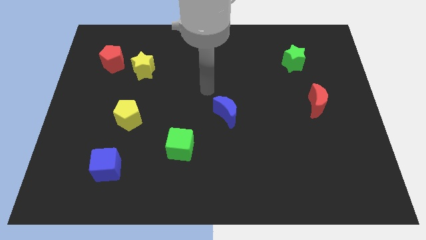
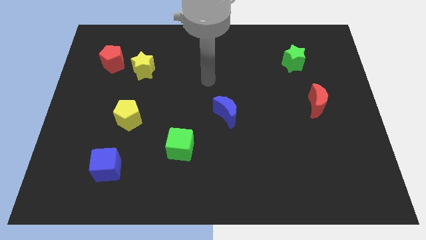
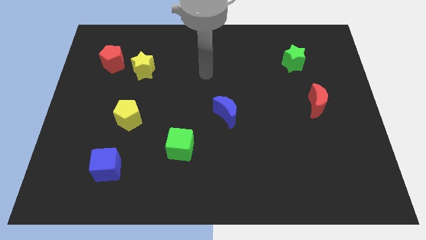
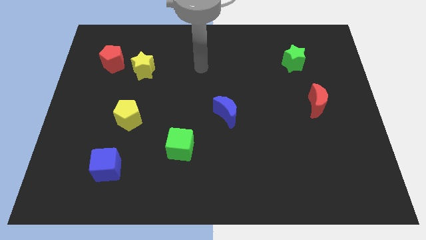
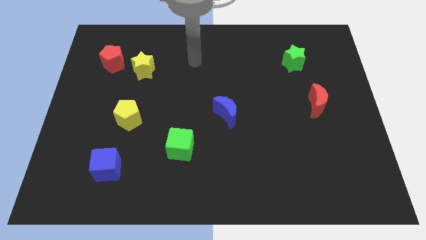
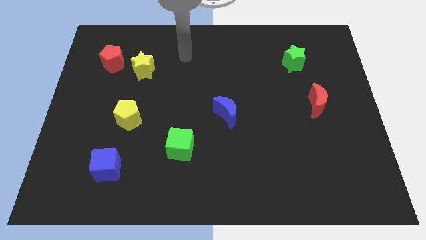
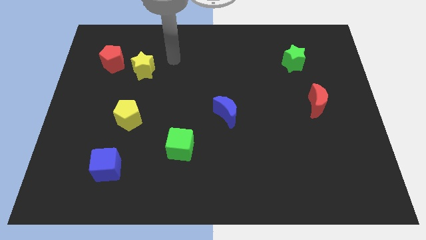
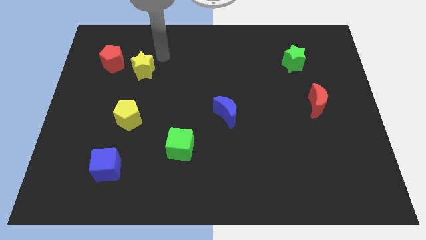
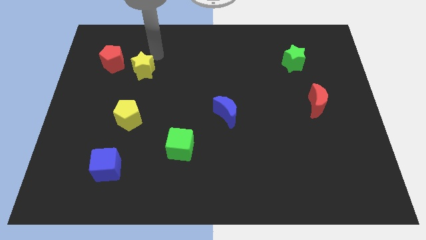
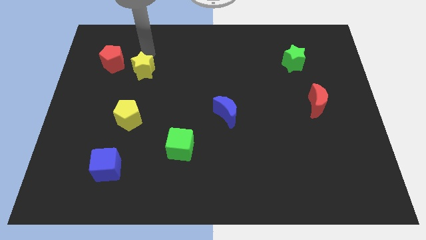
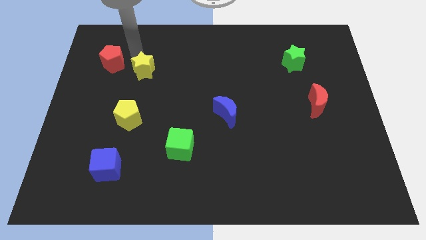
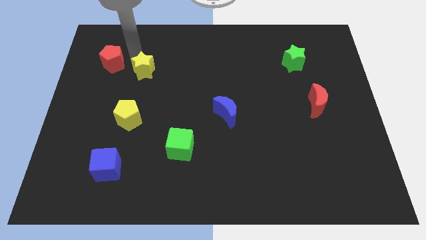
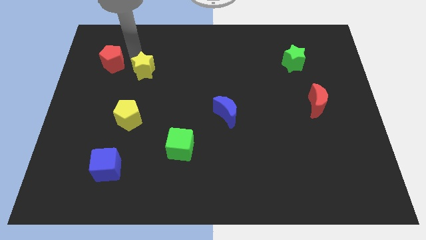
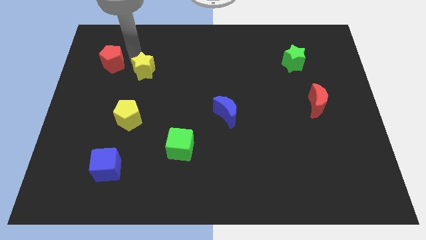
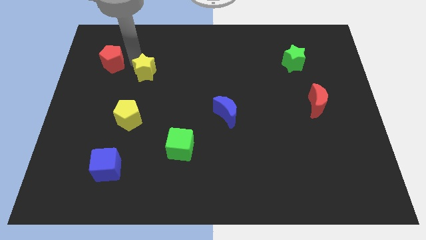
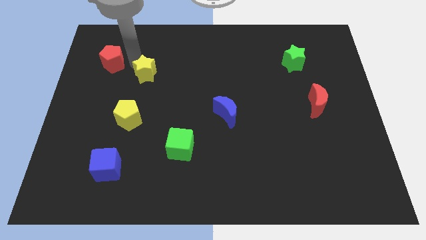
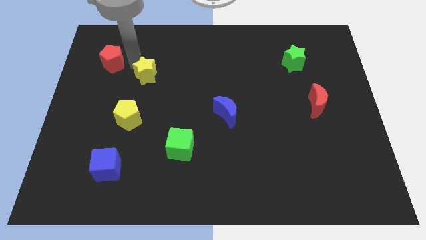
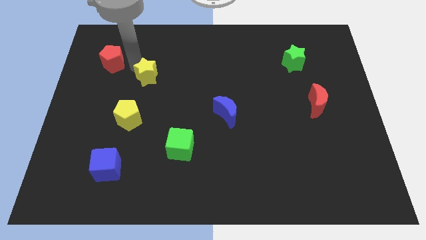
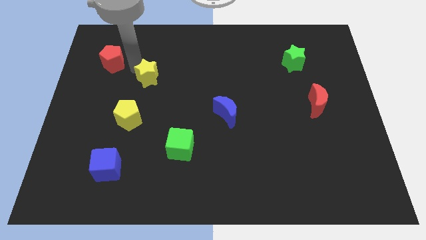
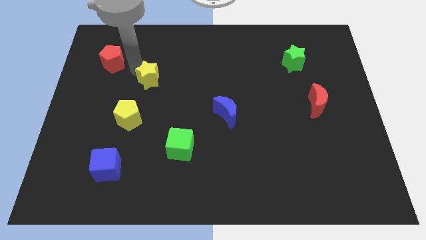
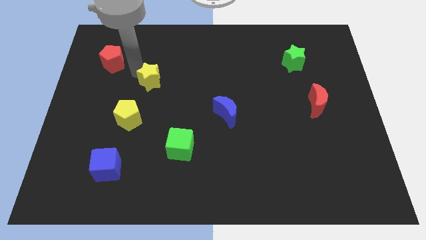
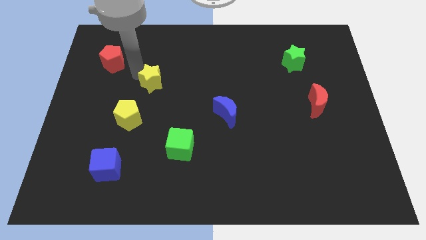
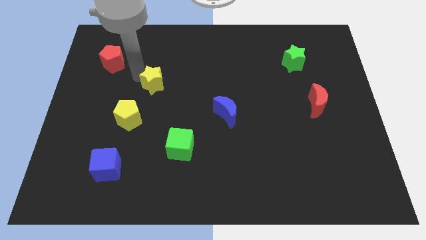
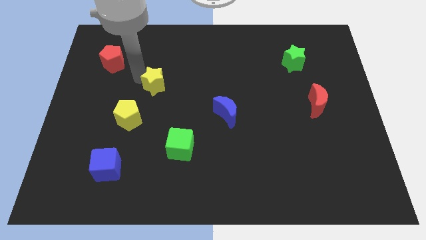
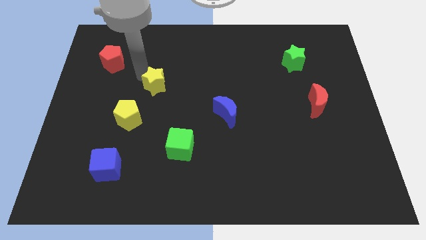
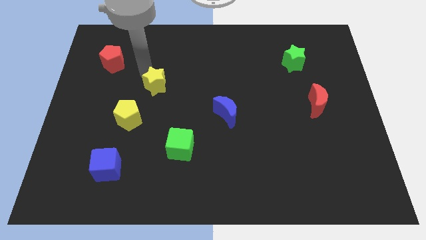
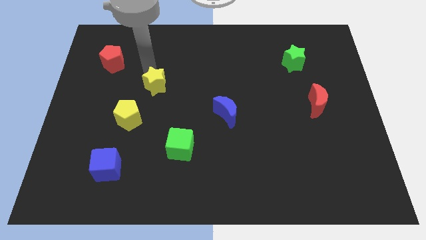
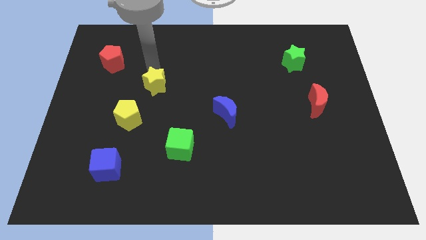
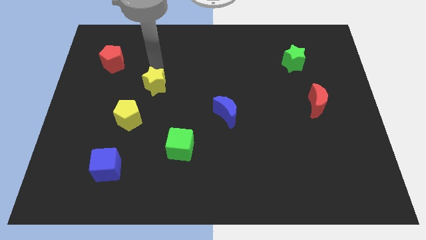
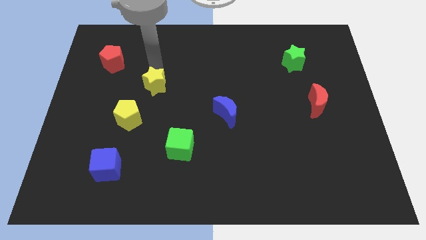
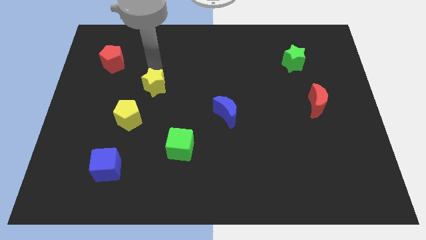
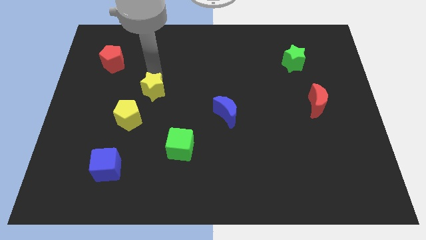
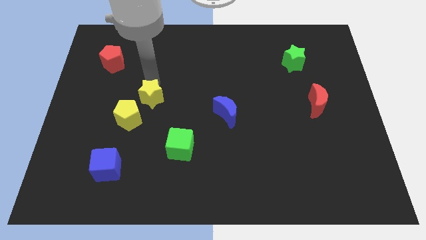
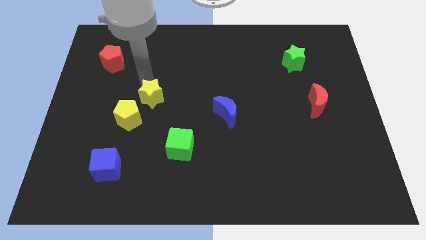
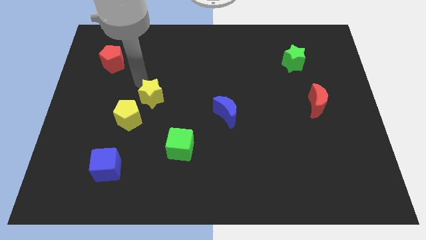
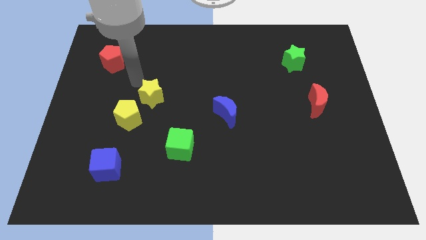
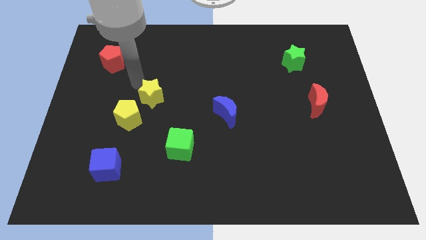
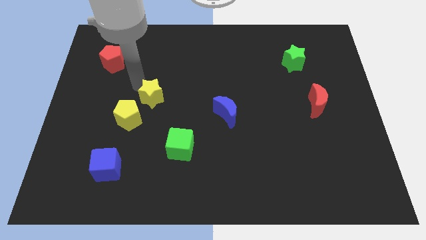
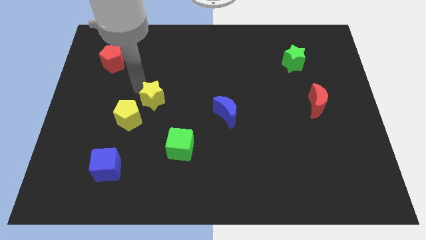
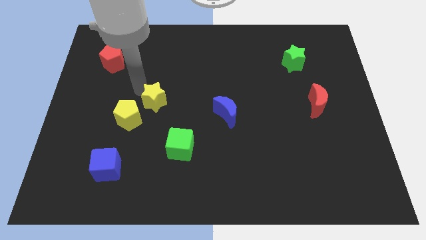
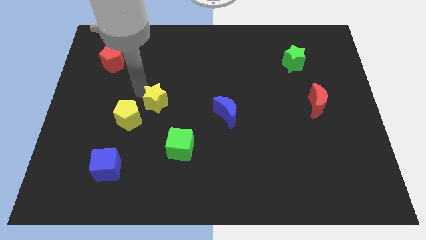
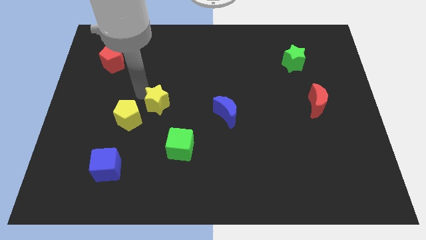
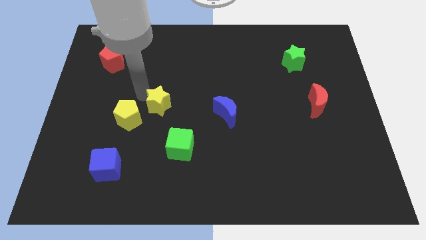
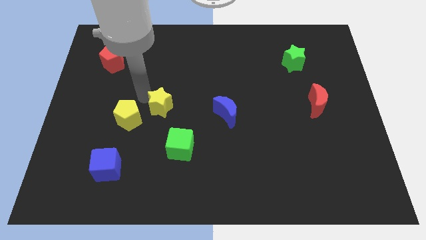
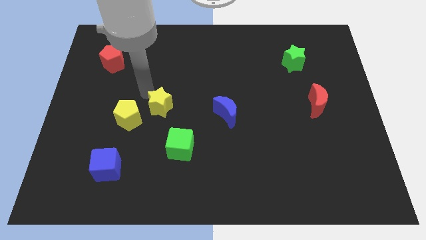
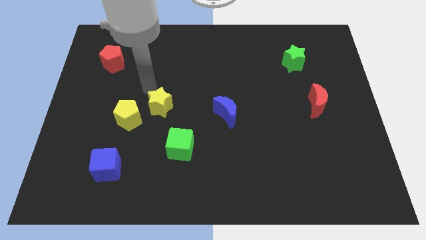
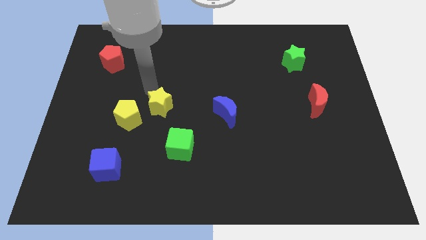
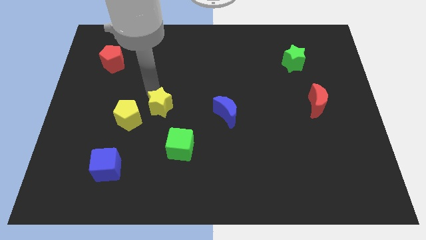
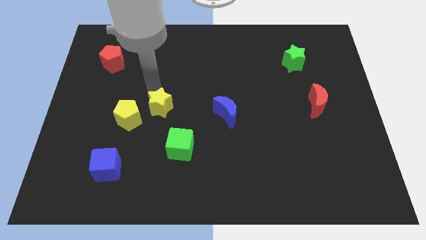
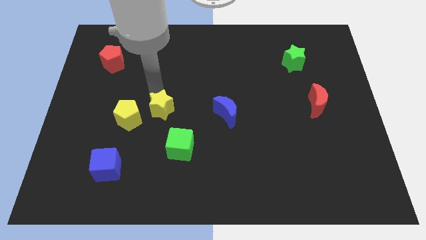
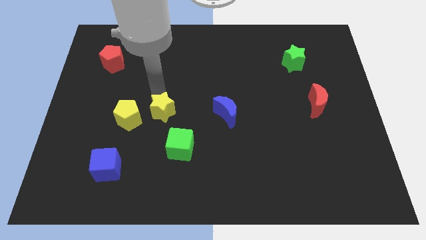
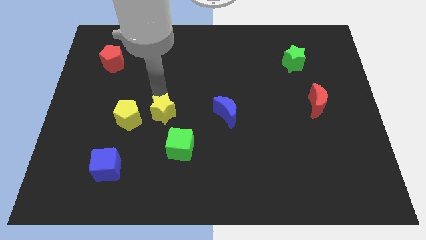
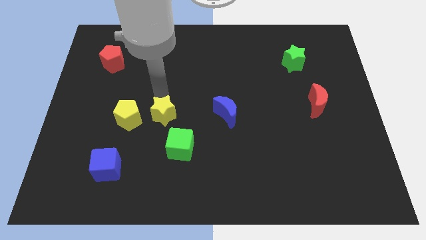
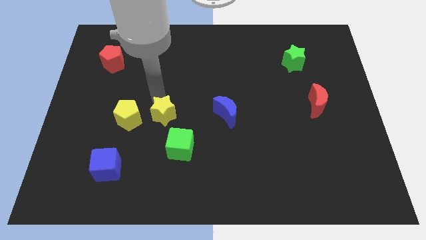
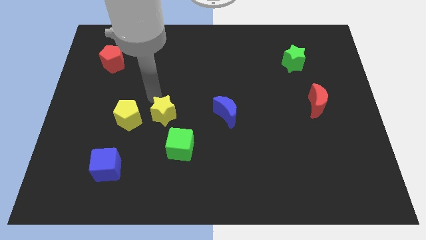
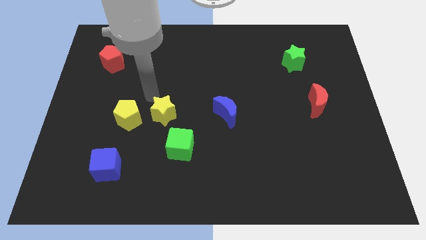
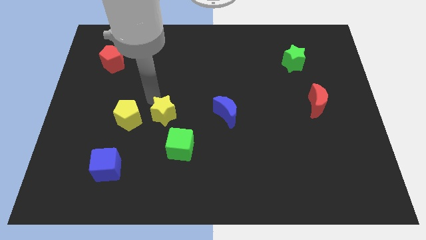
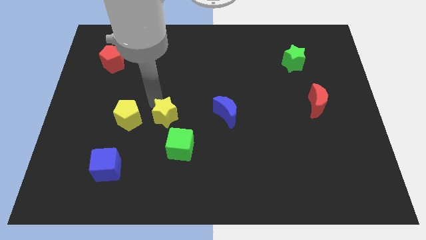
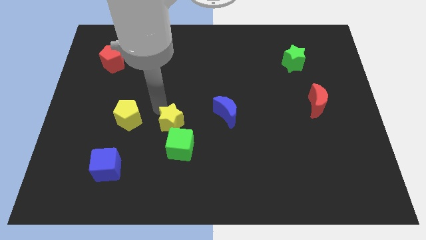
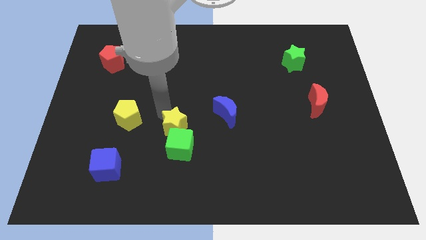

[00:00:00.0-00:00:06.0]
push the yellow star to the green cube

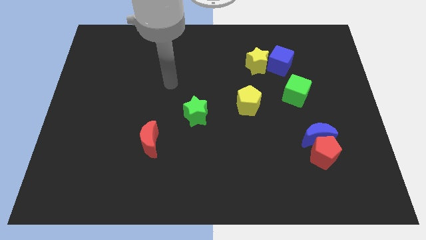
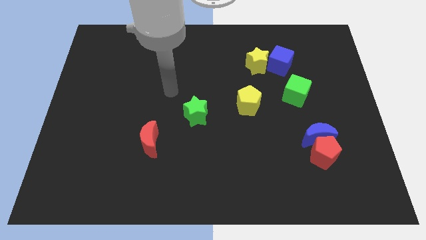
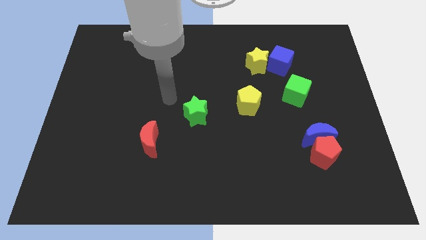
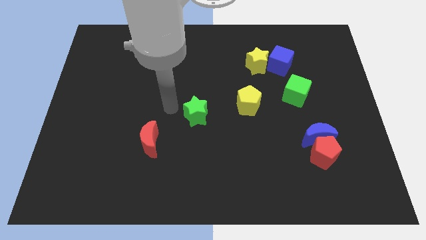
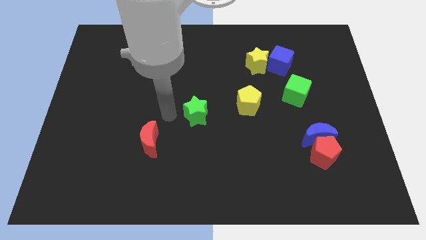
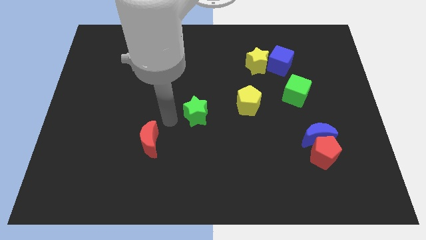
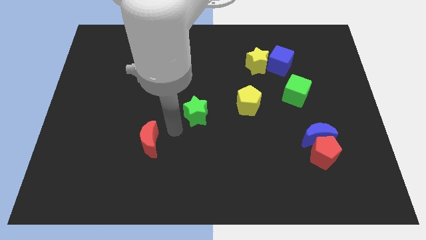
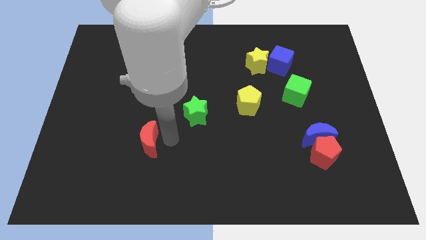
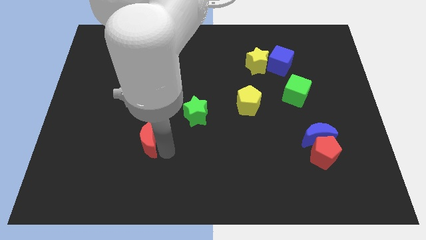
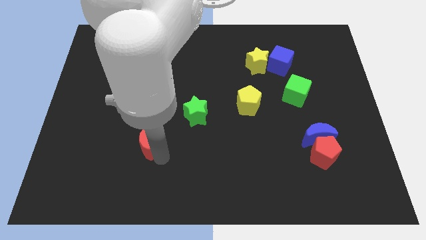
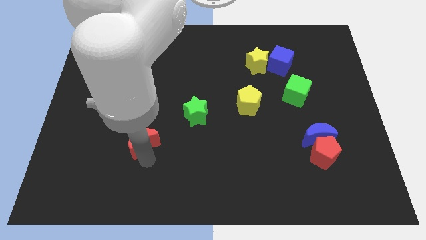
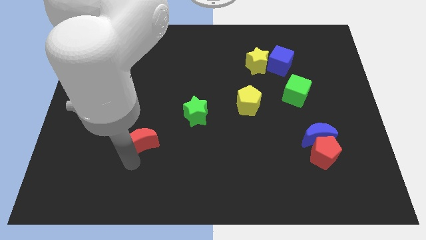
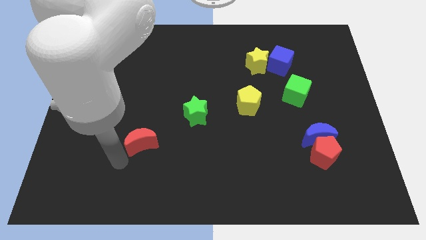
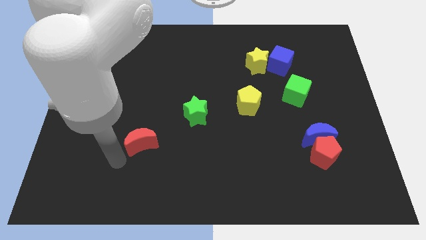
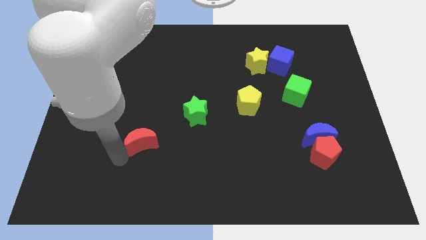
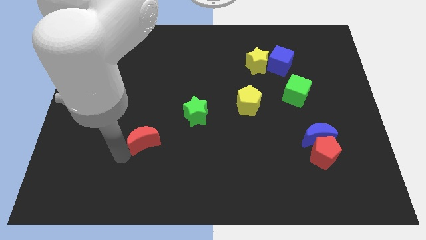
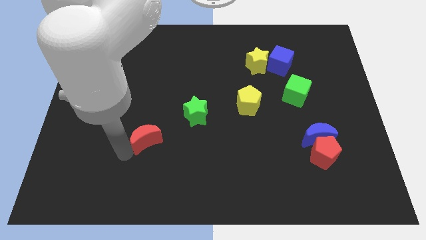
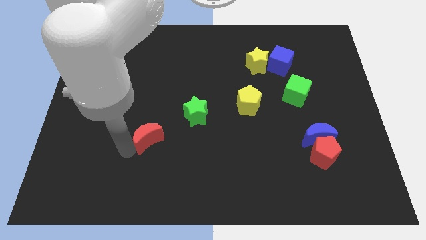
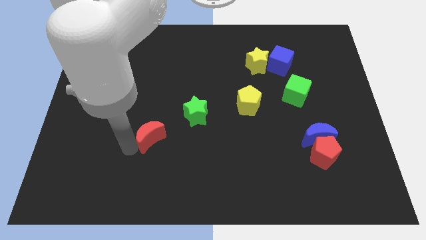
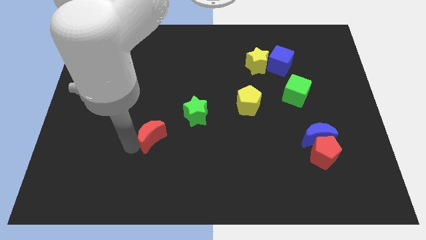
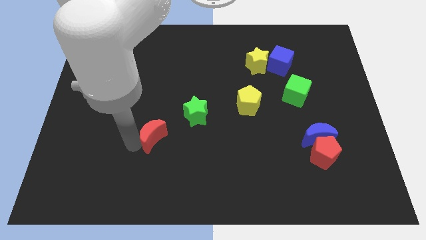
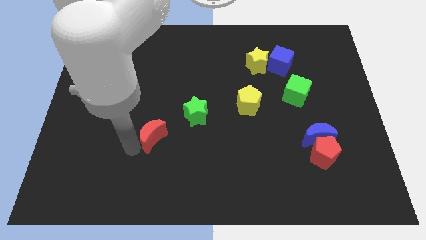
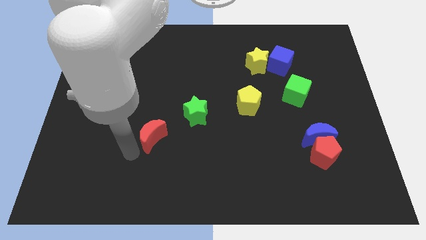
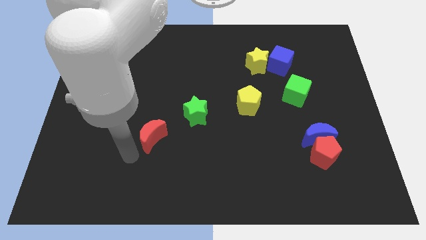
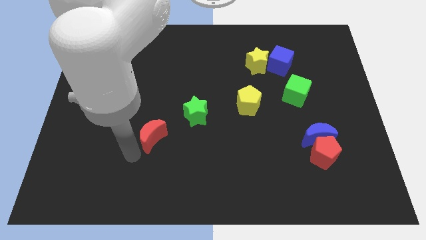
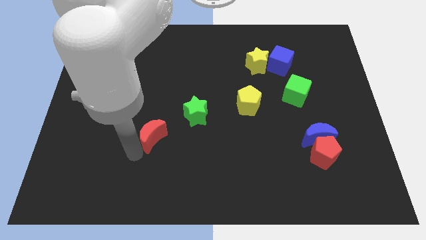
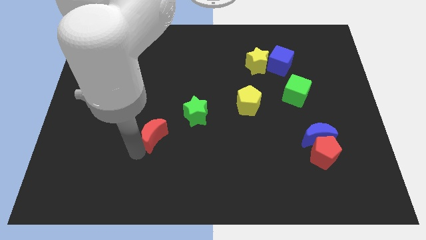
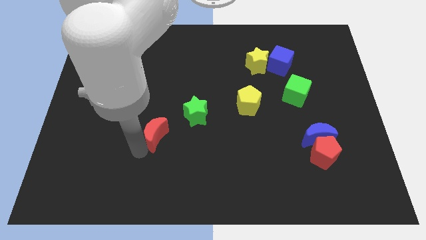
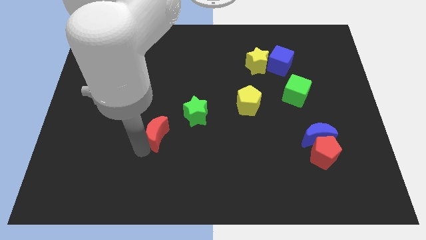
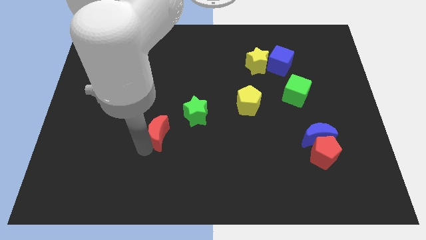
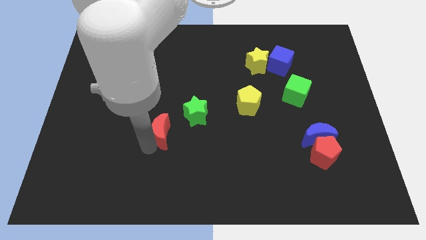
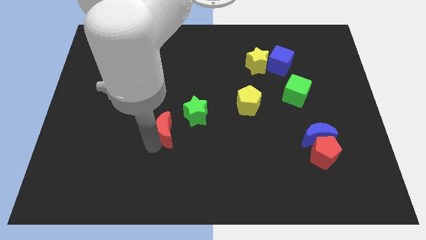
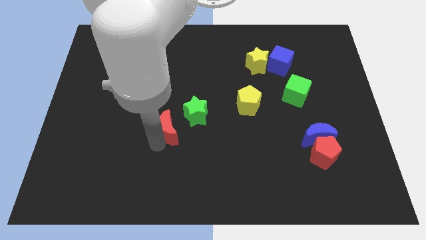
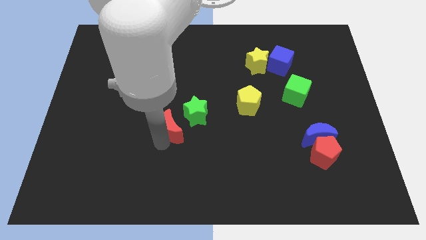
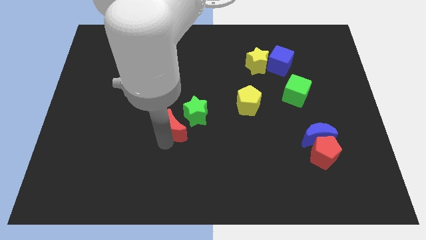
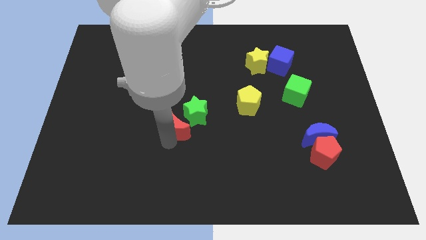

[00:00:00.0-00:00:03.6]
put the red moon to the green star
